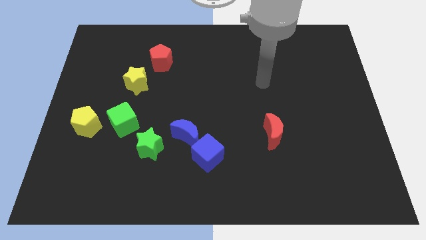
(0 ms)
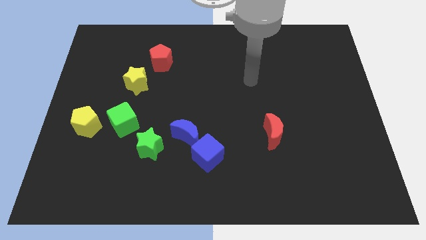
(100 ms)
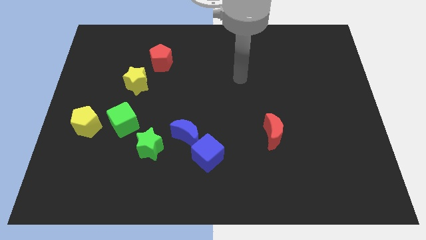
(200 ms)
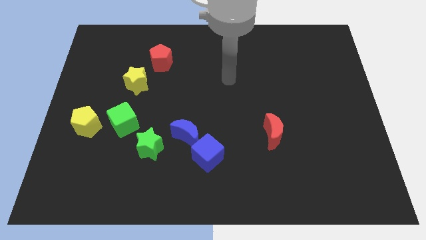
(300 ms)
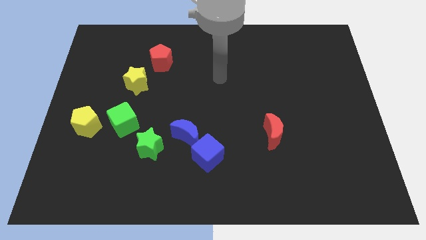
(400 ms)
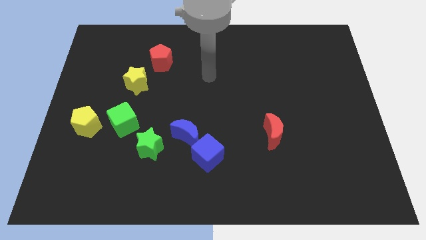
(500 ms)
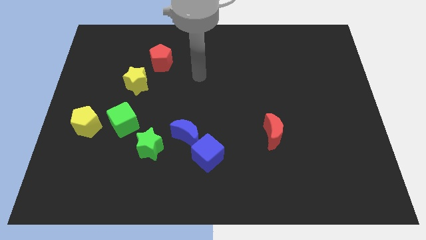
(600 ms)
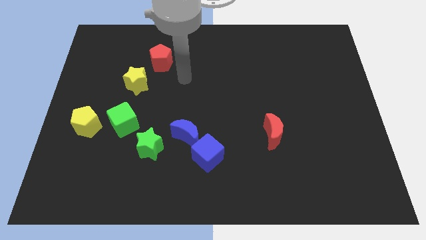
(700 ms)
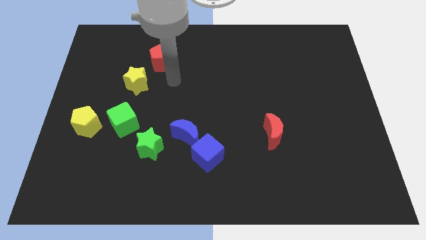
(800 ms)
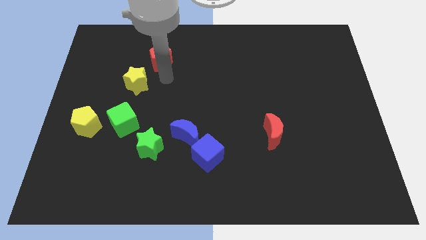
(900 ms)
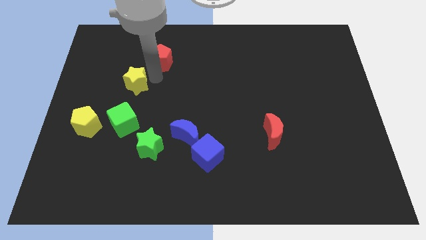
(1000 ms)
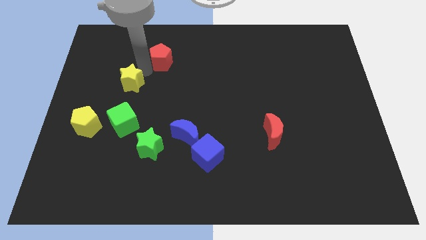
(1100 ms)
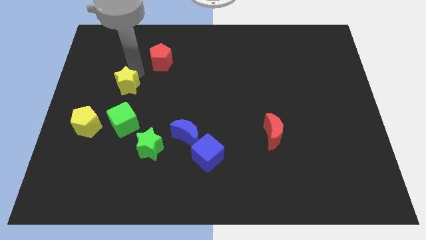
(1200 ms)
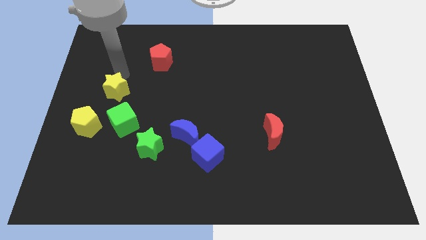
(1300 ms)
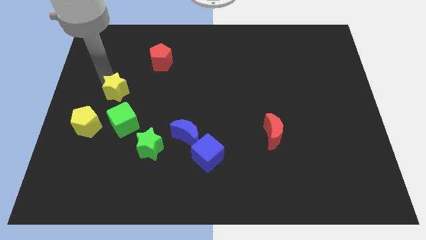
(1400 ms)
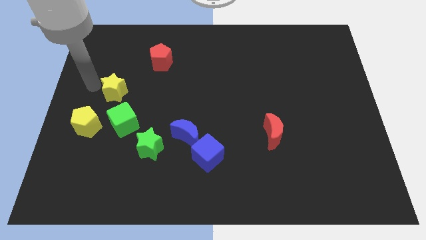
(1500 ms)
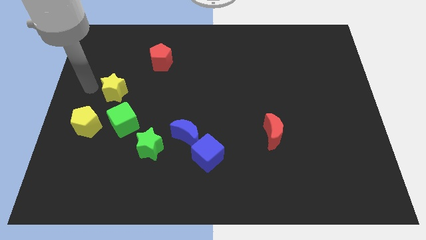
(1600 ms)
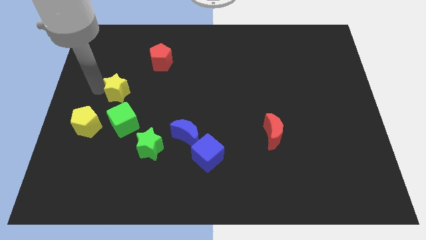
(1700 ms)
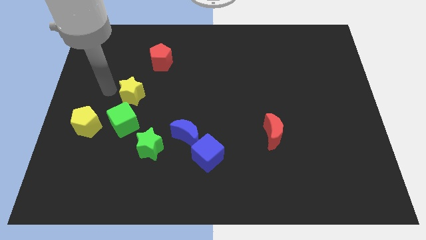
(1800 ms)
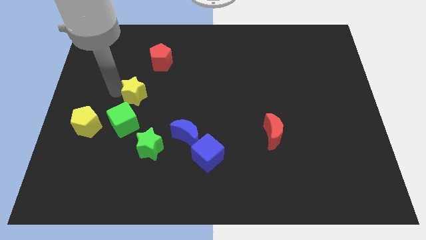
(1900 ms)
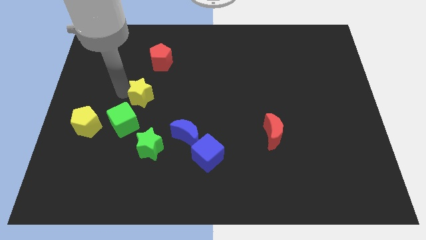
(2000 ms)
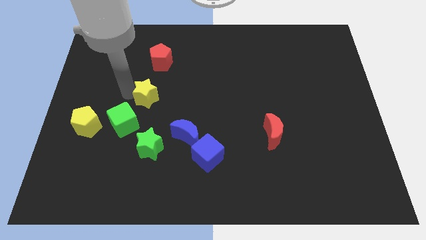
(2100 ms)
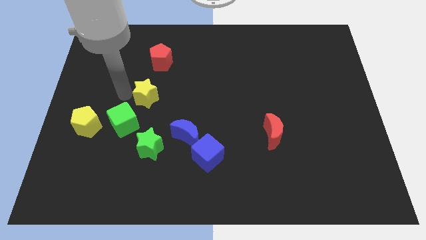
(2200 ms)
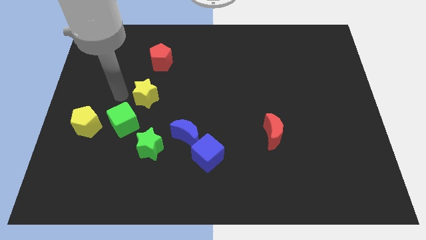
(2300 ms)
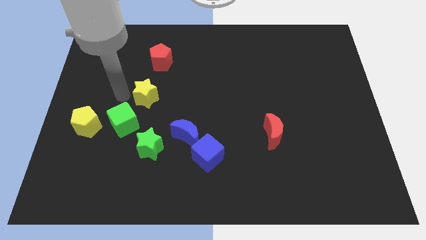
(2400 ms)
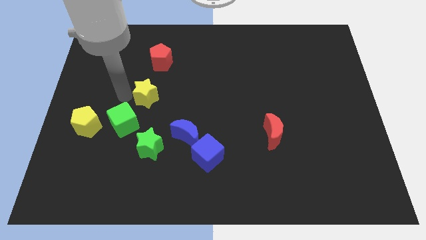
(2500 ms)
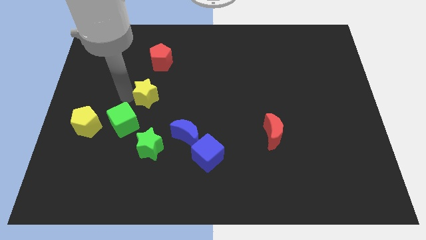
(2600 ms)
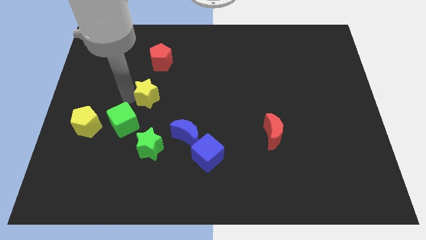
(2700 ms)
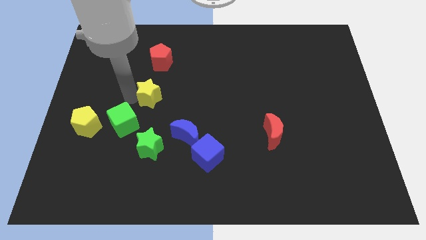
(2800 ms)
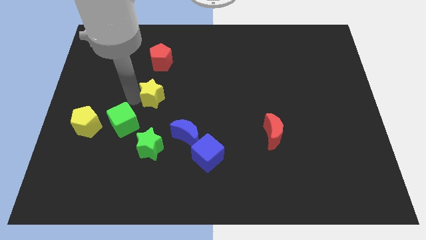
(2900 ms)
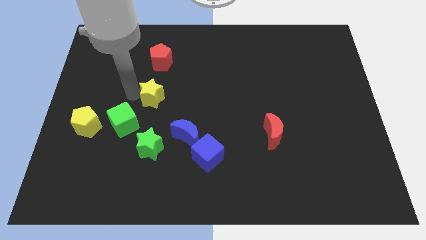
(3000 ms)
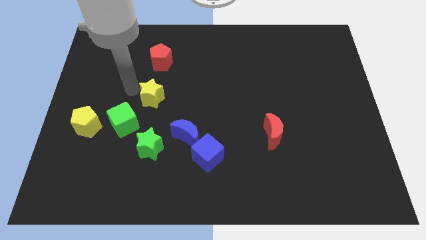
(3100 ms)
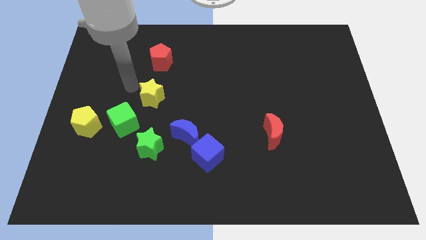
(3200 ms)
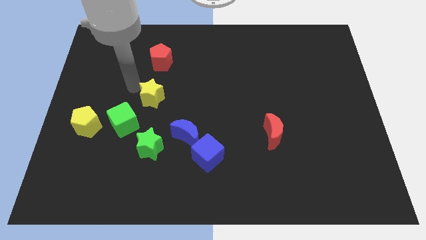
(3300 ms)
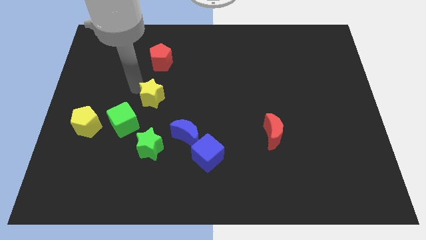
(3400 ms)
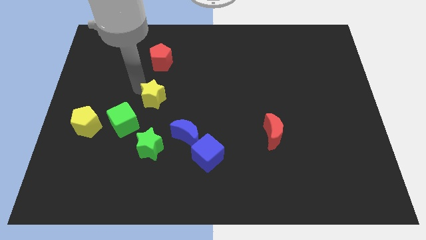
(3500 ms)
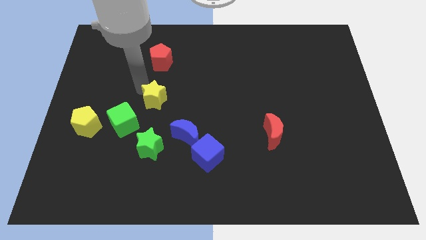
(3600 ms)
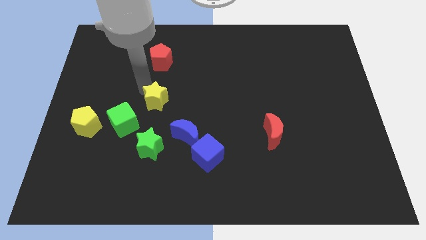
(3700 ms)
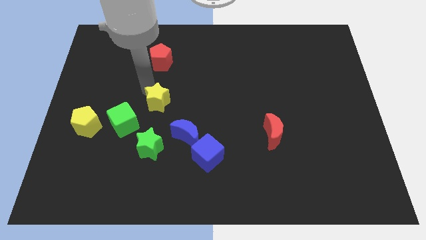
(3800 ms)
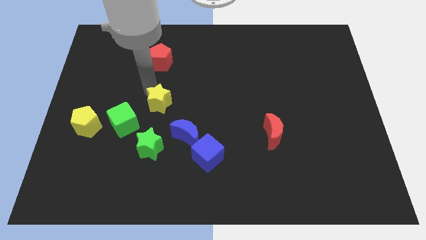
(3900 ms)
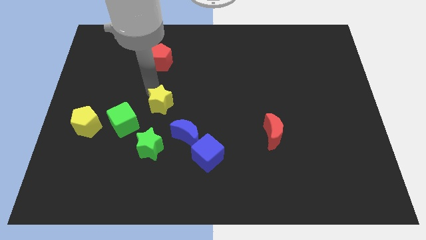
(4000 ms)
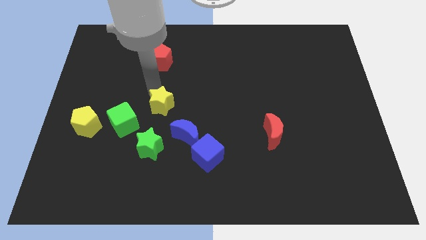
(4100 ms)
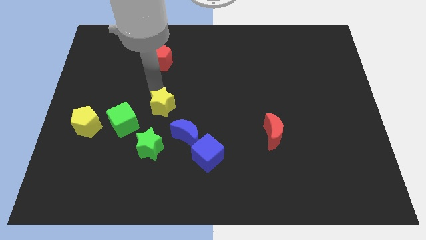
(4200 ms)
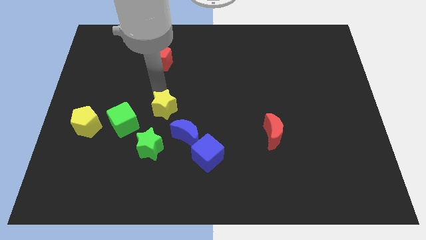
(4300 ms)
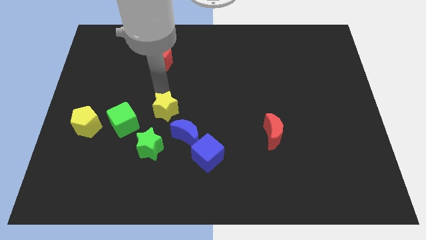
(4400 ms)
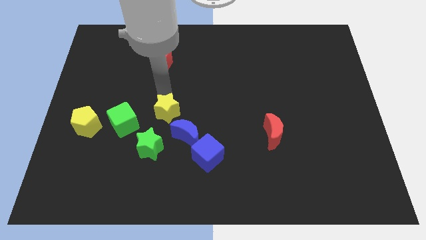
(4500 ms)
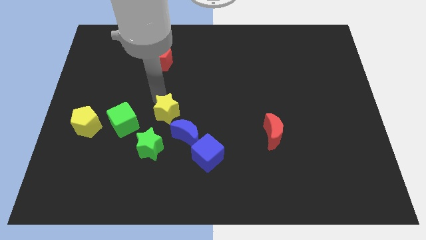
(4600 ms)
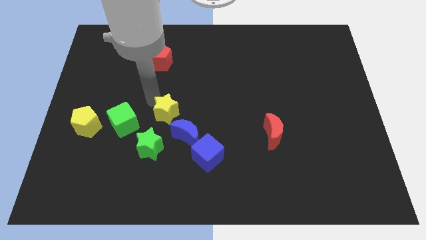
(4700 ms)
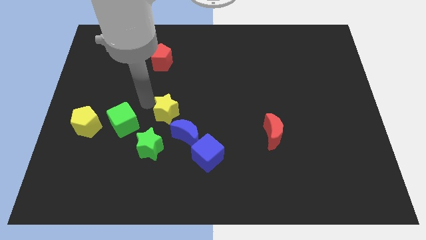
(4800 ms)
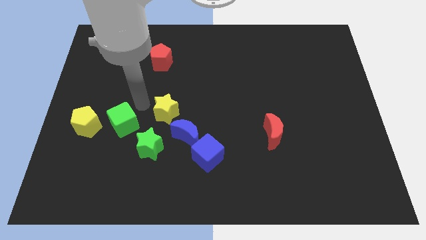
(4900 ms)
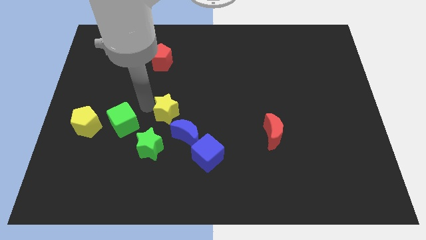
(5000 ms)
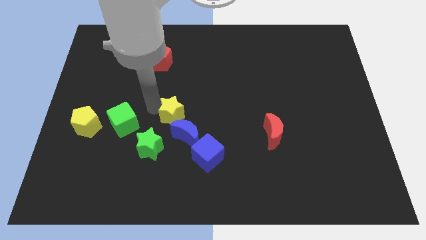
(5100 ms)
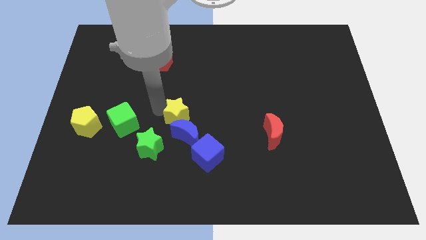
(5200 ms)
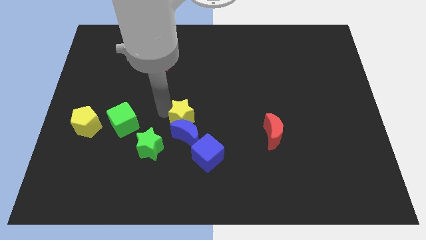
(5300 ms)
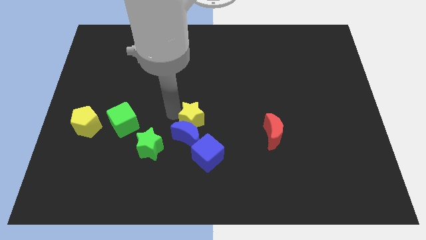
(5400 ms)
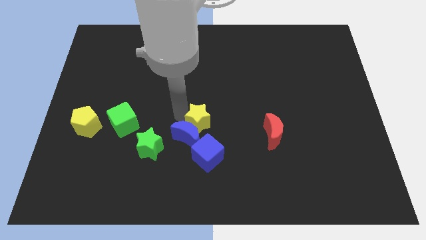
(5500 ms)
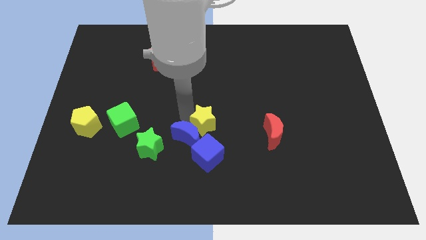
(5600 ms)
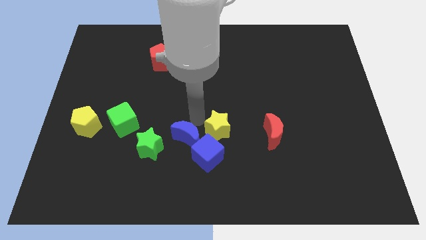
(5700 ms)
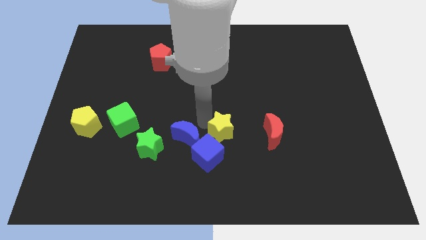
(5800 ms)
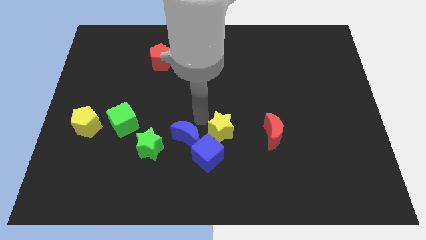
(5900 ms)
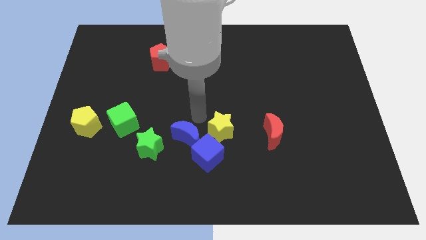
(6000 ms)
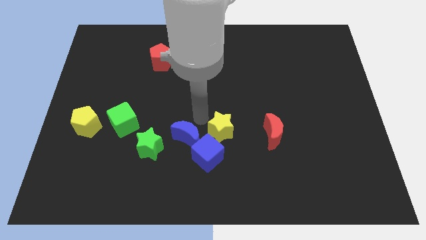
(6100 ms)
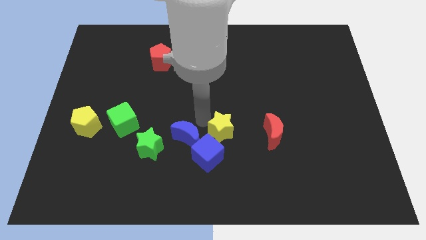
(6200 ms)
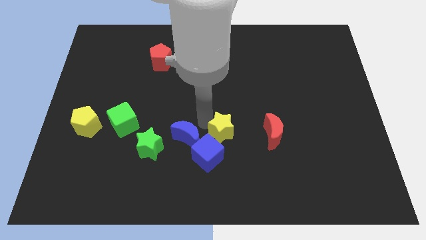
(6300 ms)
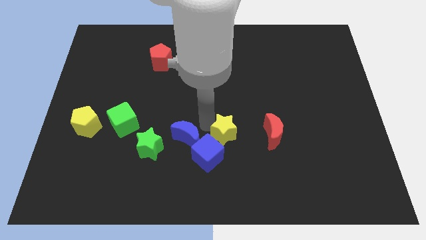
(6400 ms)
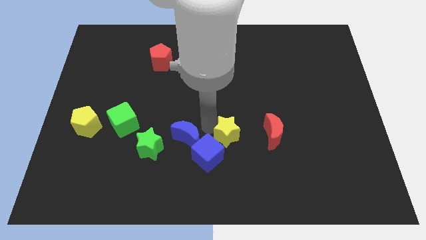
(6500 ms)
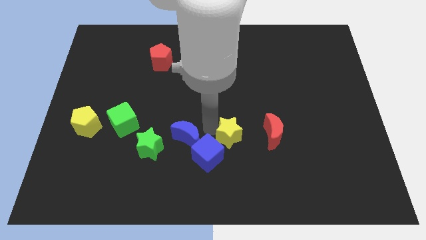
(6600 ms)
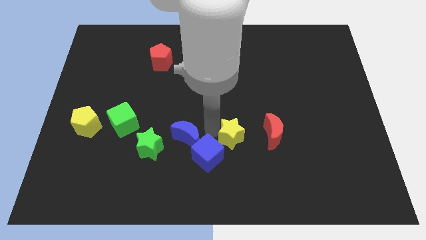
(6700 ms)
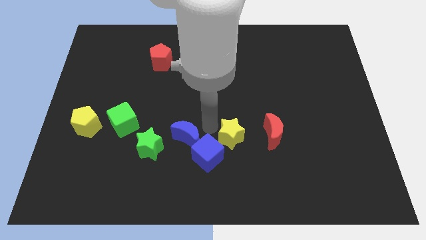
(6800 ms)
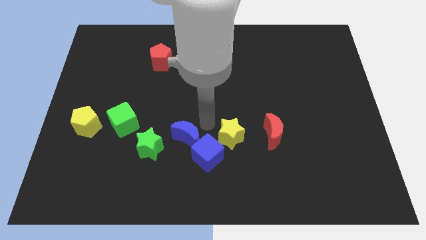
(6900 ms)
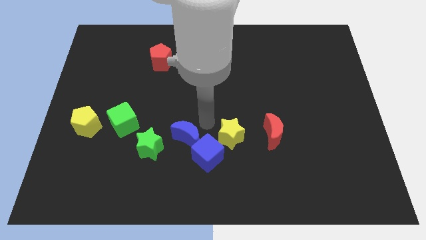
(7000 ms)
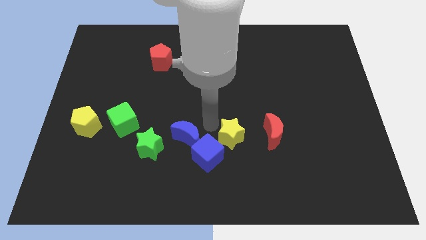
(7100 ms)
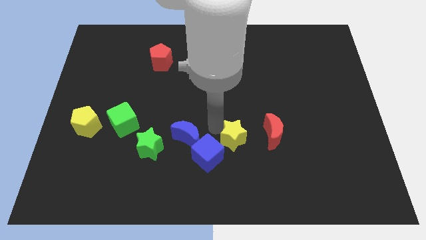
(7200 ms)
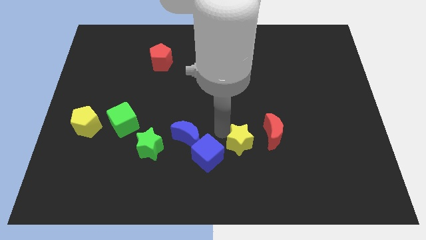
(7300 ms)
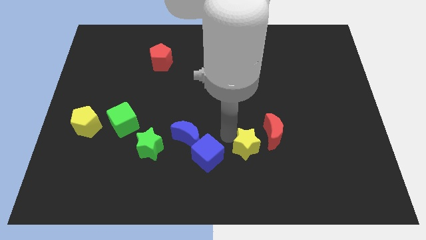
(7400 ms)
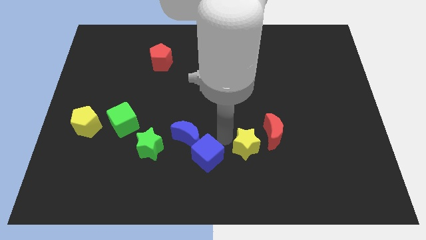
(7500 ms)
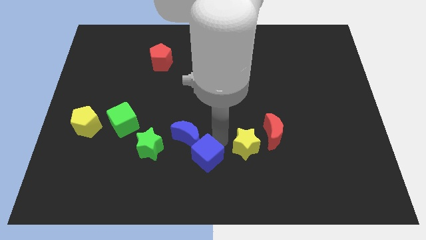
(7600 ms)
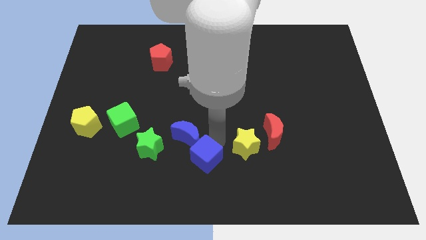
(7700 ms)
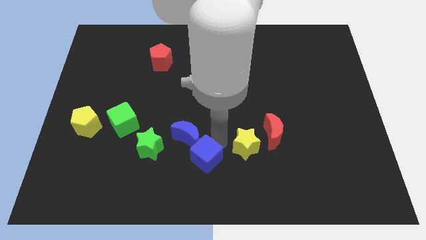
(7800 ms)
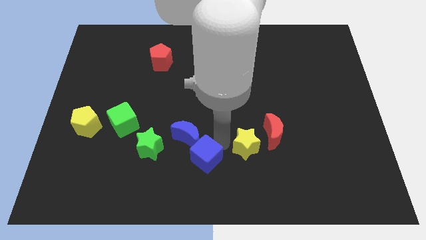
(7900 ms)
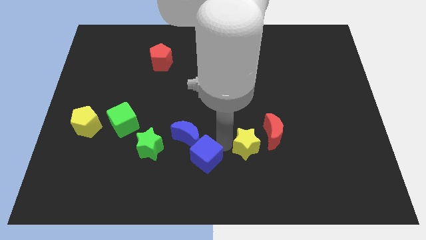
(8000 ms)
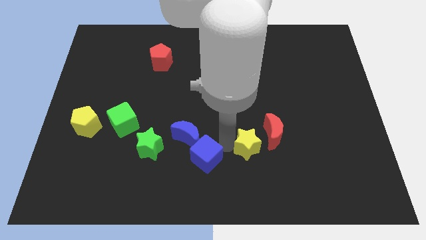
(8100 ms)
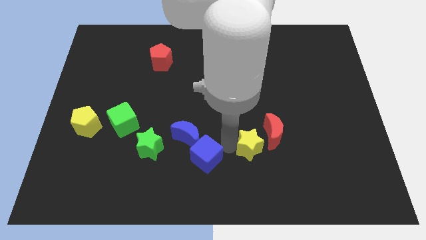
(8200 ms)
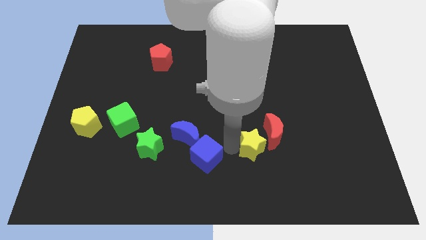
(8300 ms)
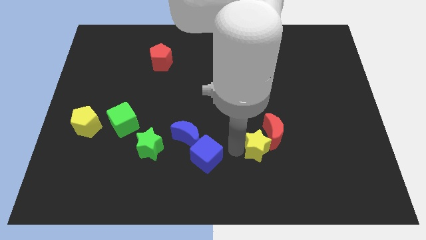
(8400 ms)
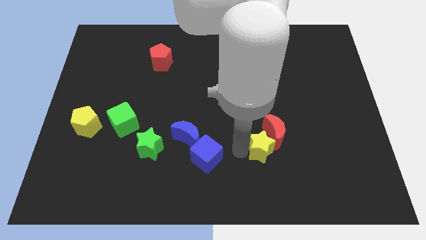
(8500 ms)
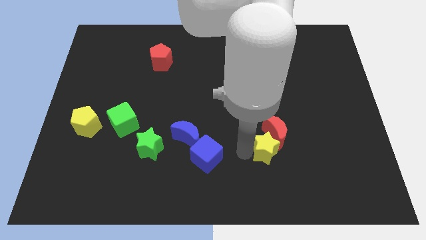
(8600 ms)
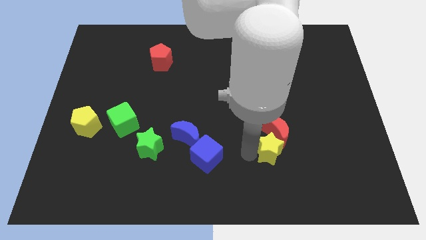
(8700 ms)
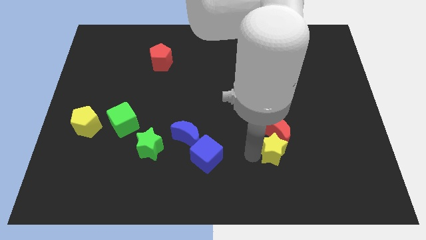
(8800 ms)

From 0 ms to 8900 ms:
push the yellow star to the bottom right of the red moon
